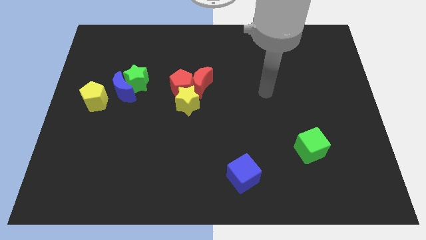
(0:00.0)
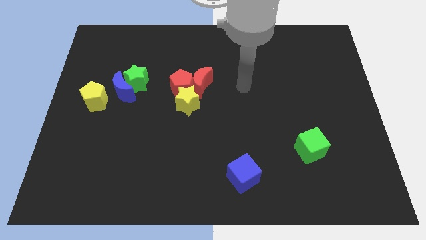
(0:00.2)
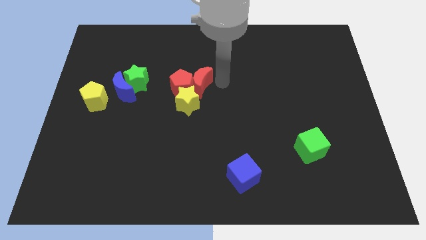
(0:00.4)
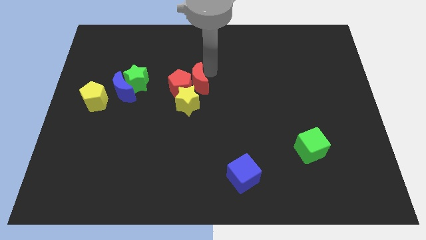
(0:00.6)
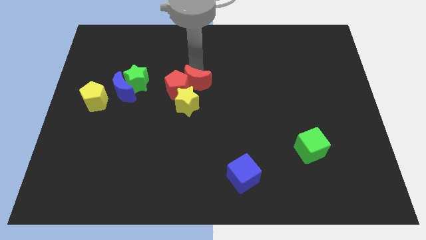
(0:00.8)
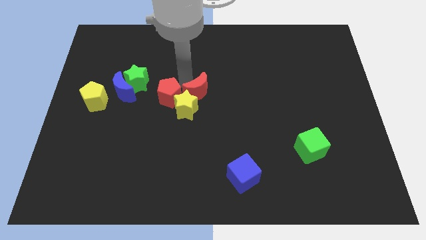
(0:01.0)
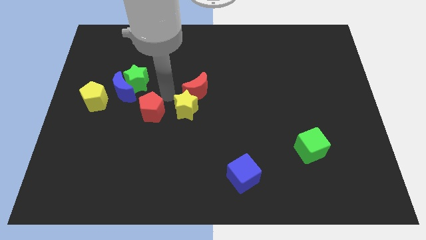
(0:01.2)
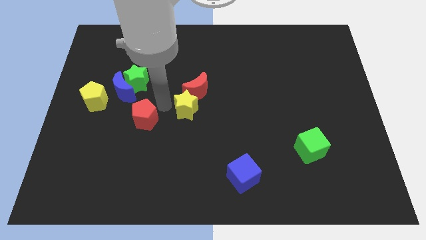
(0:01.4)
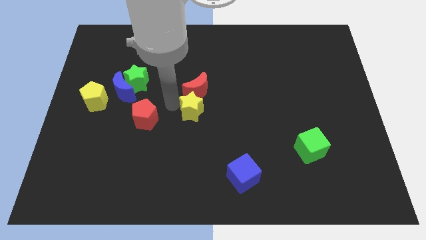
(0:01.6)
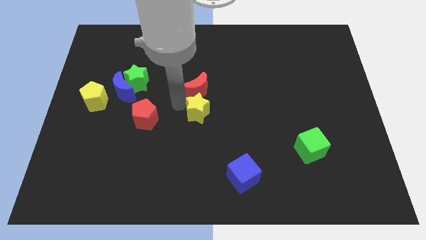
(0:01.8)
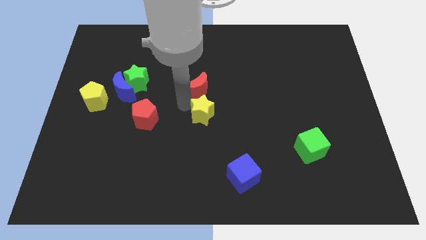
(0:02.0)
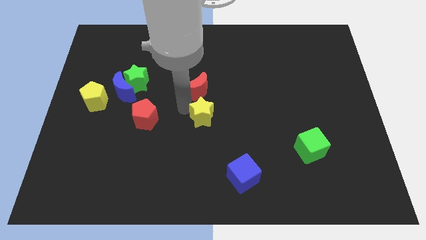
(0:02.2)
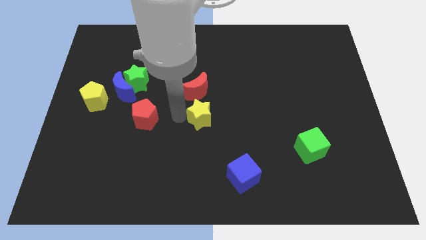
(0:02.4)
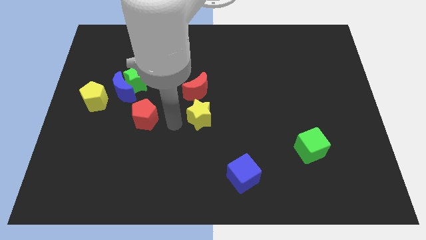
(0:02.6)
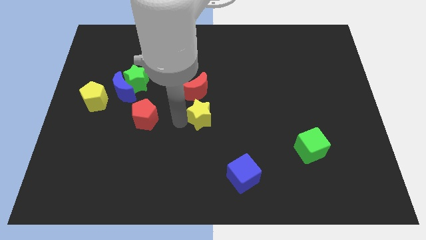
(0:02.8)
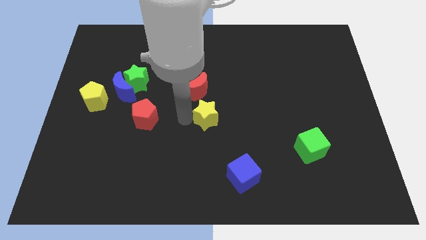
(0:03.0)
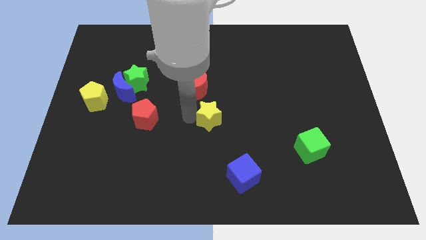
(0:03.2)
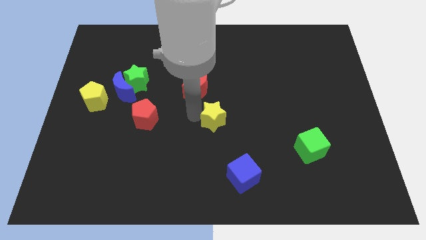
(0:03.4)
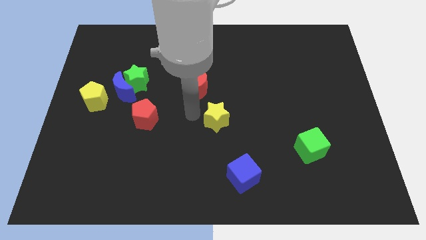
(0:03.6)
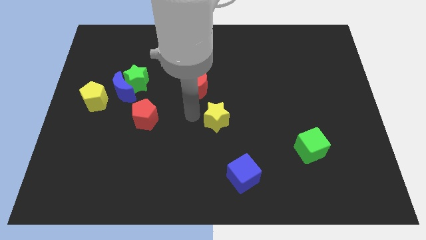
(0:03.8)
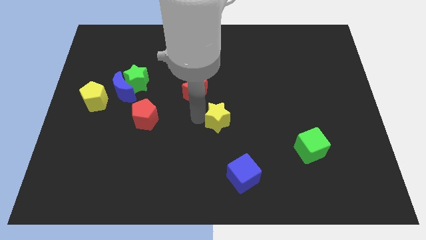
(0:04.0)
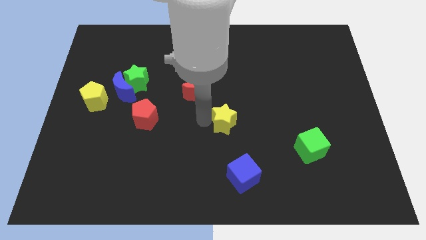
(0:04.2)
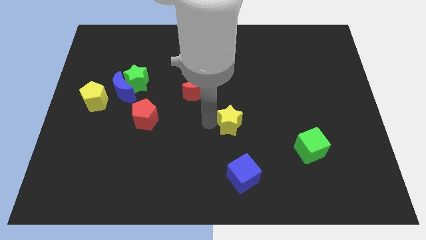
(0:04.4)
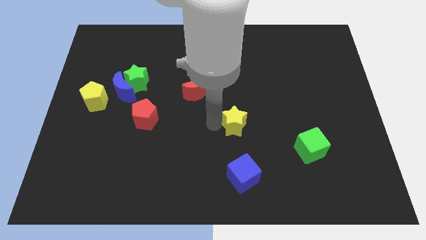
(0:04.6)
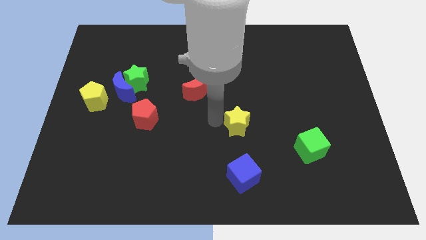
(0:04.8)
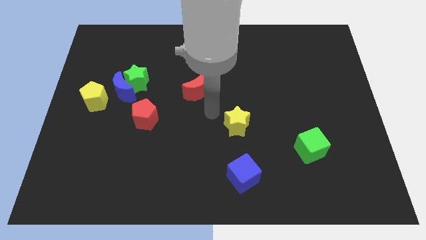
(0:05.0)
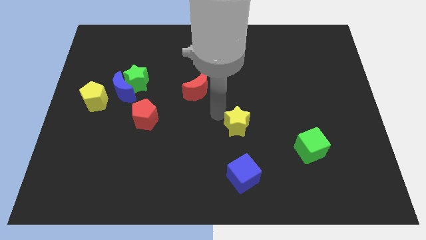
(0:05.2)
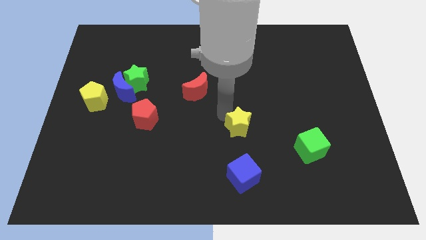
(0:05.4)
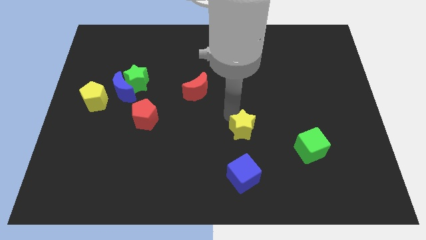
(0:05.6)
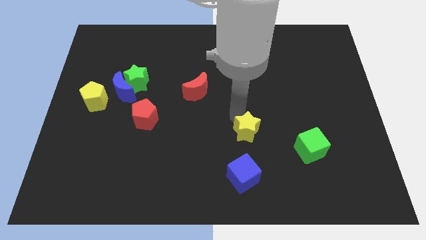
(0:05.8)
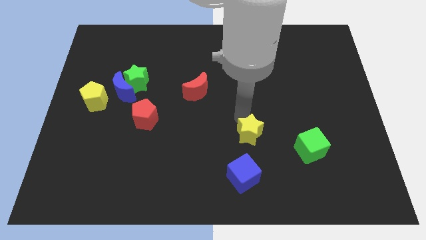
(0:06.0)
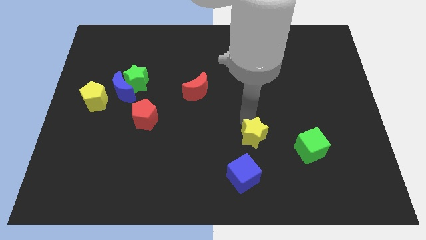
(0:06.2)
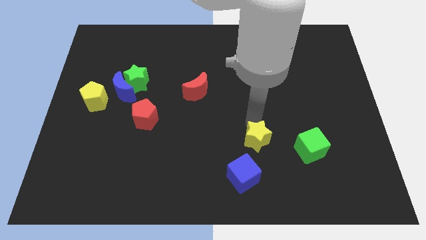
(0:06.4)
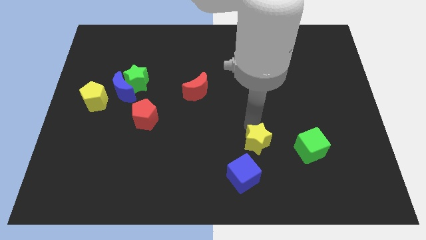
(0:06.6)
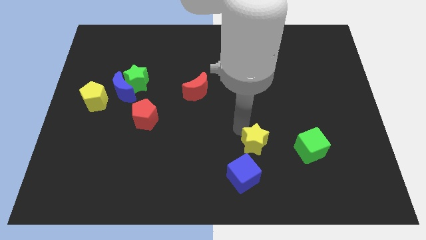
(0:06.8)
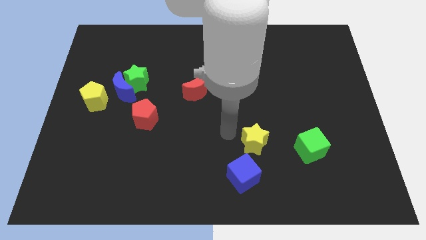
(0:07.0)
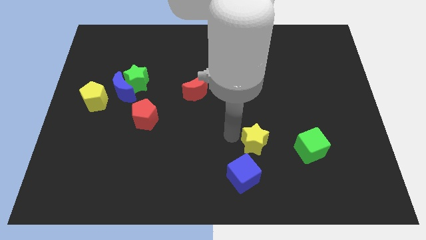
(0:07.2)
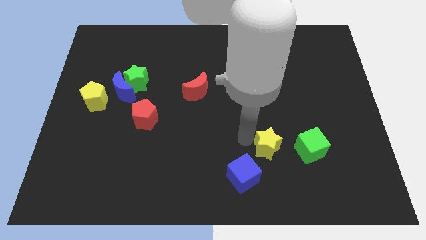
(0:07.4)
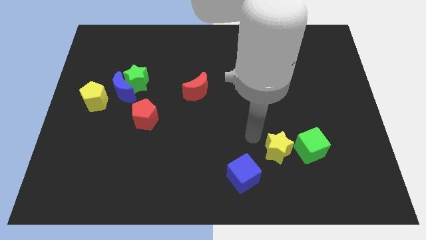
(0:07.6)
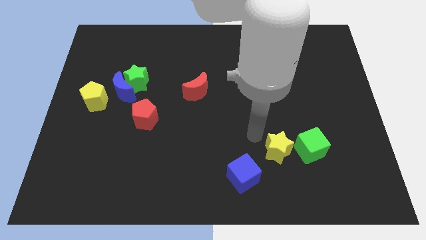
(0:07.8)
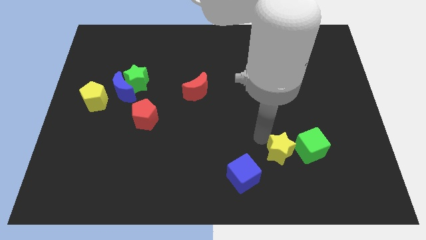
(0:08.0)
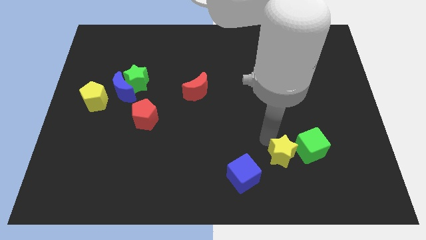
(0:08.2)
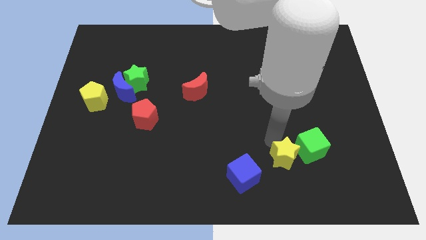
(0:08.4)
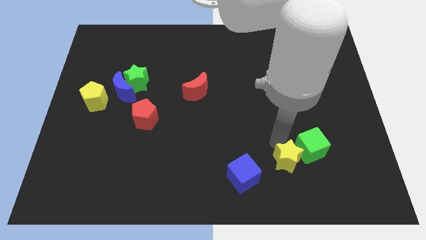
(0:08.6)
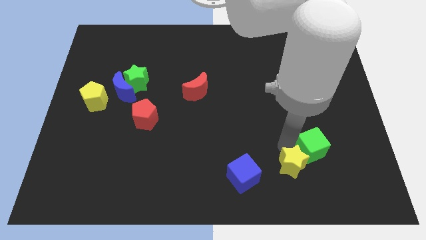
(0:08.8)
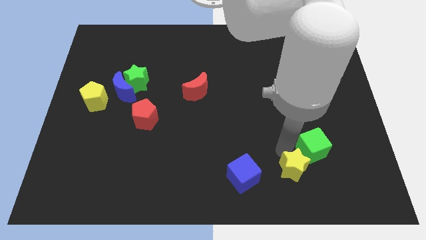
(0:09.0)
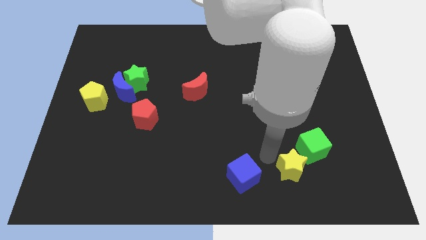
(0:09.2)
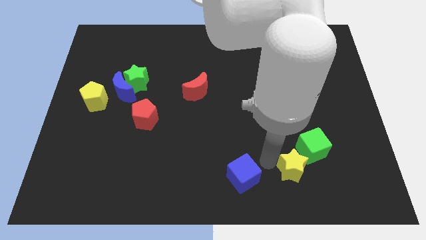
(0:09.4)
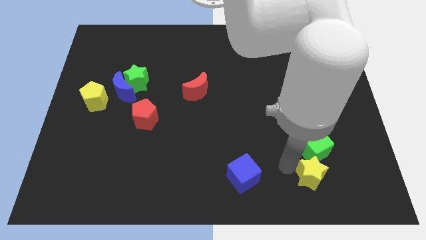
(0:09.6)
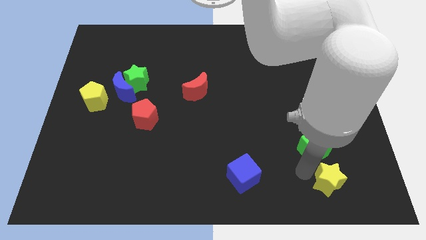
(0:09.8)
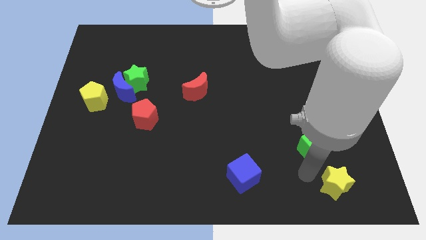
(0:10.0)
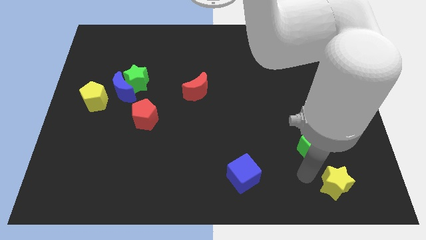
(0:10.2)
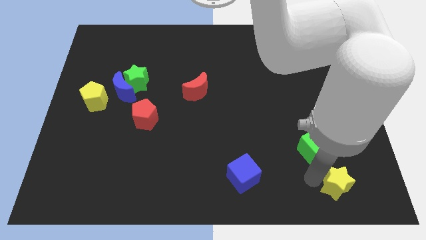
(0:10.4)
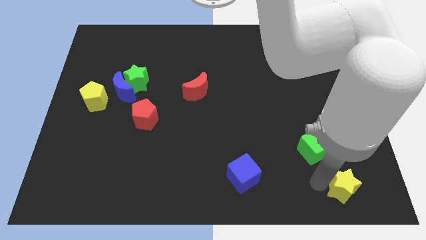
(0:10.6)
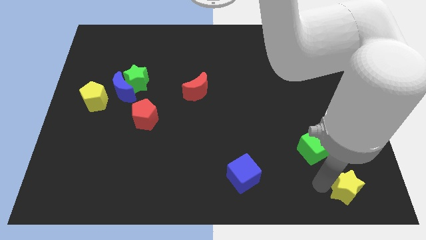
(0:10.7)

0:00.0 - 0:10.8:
put the yellow star to the bottom right corner

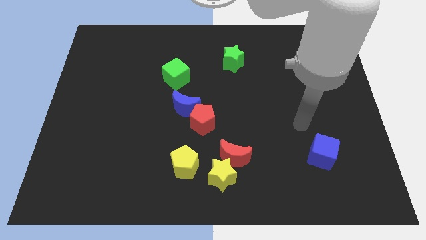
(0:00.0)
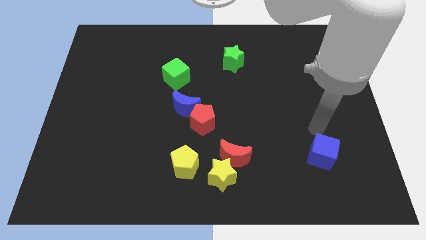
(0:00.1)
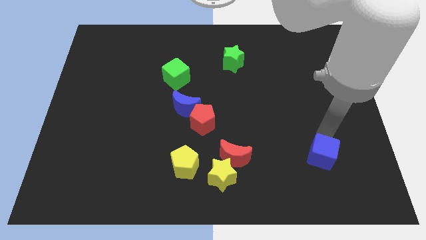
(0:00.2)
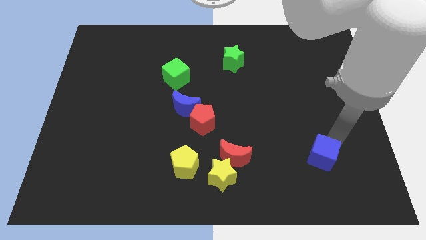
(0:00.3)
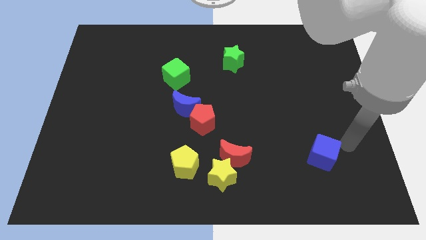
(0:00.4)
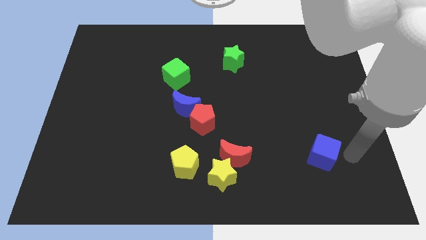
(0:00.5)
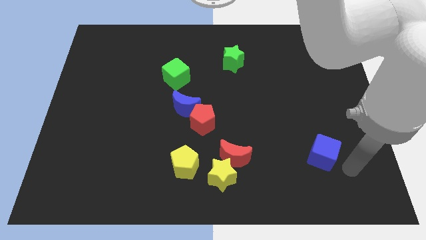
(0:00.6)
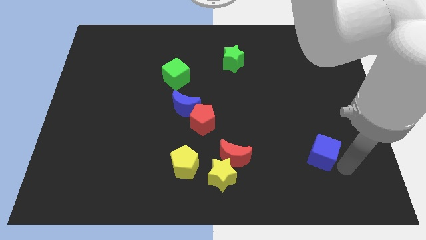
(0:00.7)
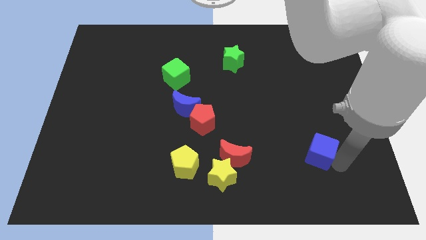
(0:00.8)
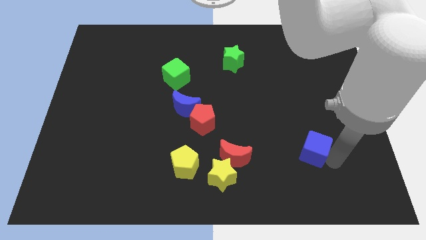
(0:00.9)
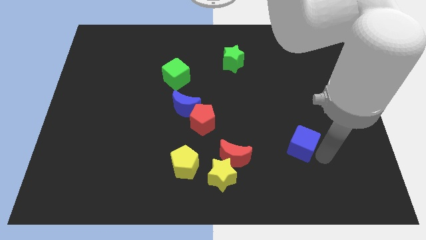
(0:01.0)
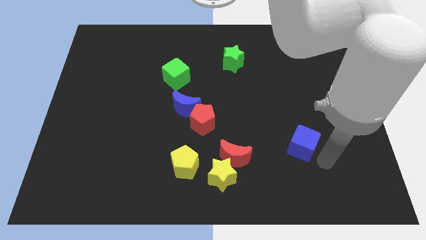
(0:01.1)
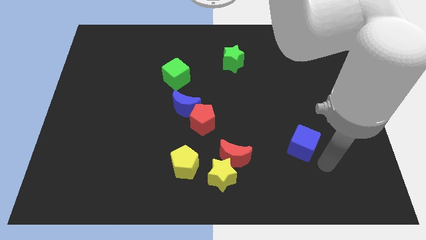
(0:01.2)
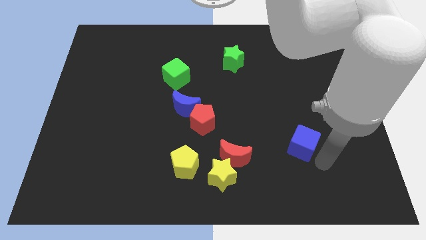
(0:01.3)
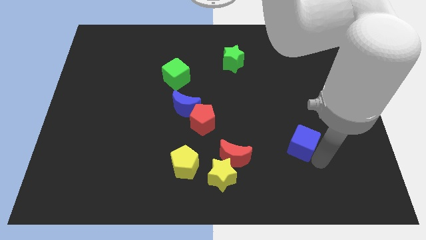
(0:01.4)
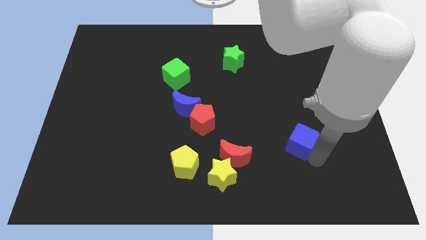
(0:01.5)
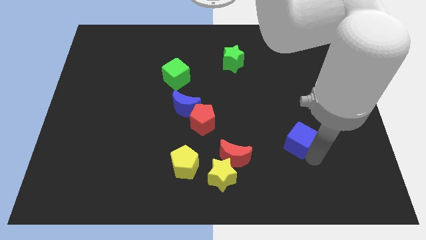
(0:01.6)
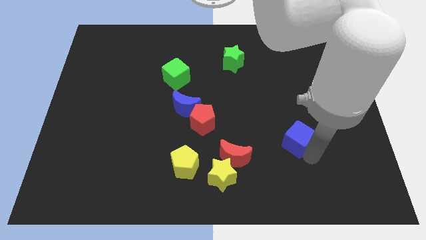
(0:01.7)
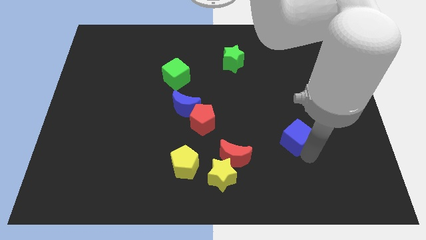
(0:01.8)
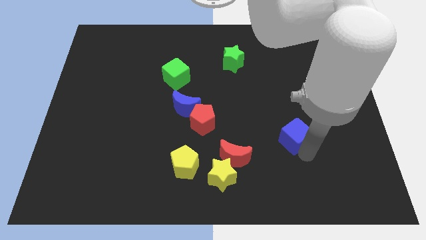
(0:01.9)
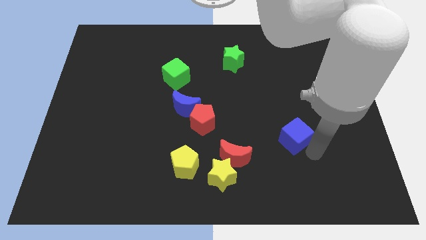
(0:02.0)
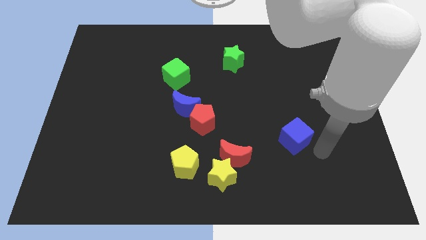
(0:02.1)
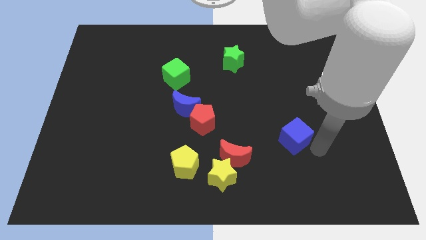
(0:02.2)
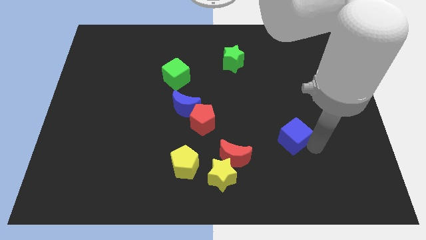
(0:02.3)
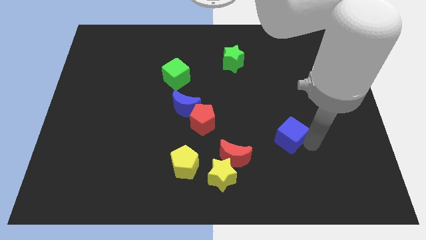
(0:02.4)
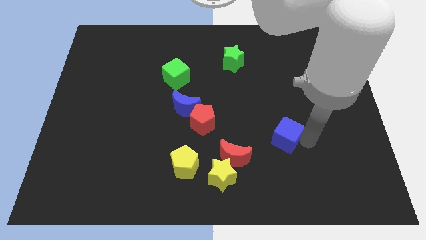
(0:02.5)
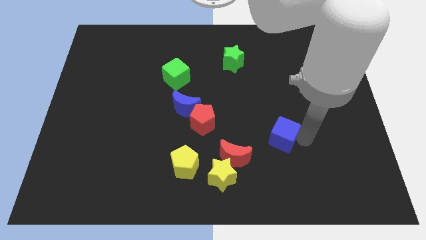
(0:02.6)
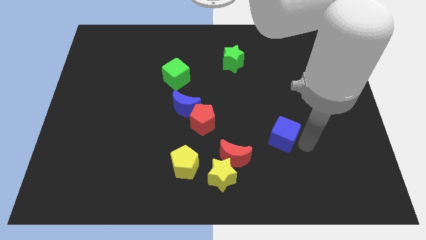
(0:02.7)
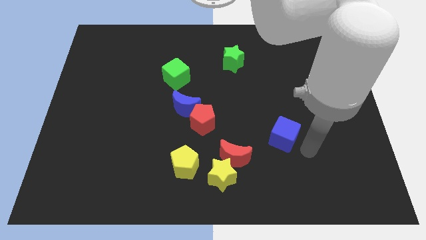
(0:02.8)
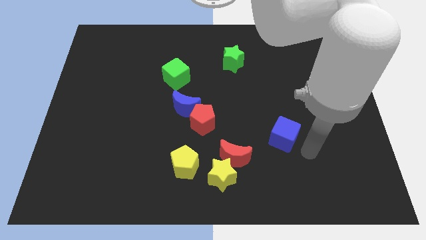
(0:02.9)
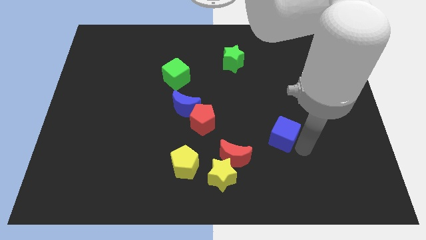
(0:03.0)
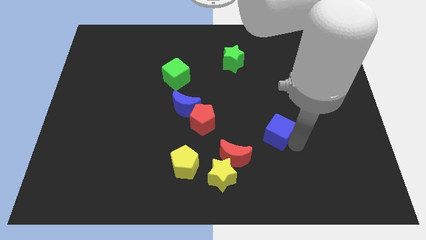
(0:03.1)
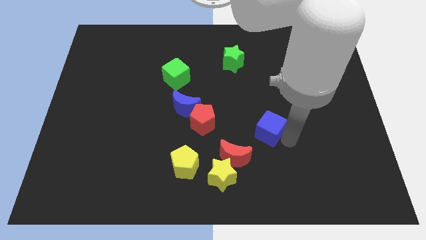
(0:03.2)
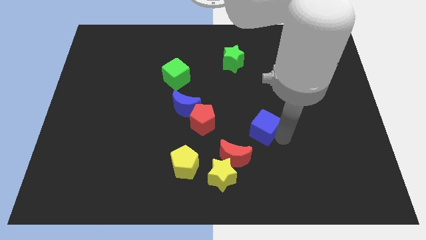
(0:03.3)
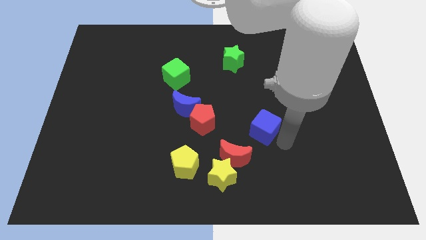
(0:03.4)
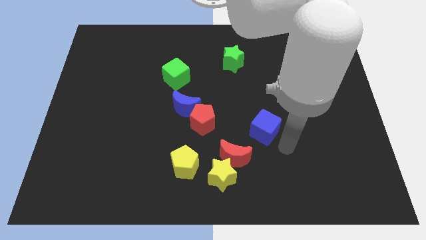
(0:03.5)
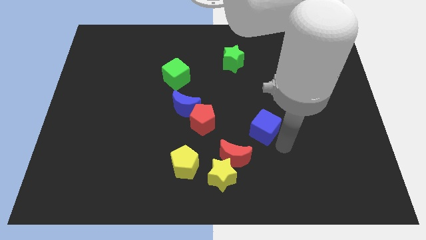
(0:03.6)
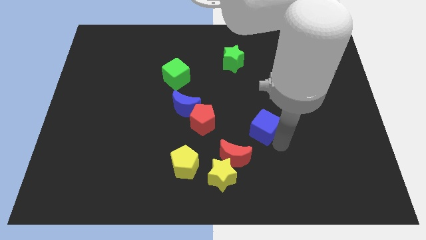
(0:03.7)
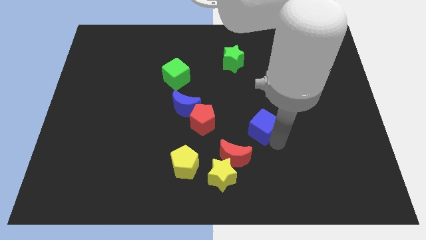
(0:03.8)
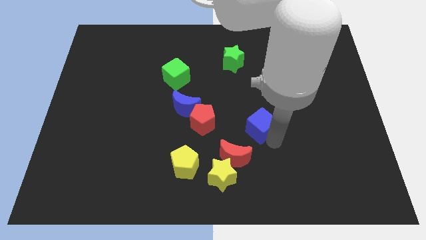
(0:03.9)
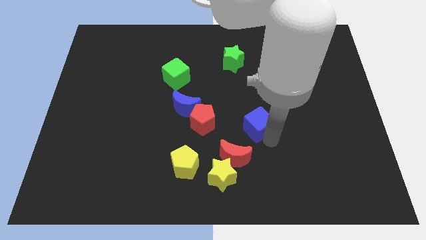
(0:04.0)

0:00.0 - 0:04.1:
put the blue cube to the center
